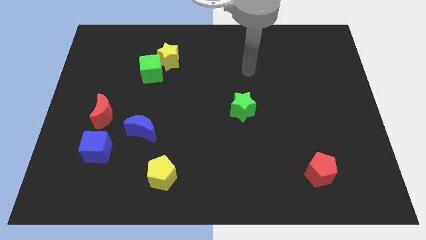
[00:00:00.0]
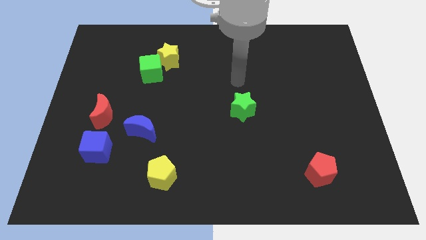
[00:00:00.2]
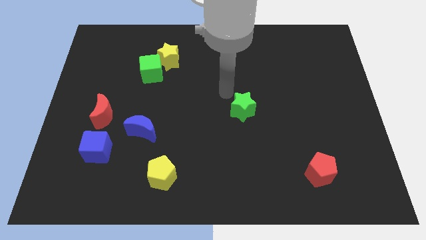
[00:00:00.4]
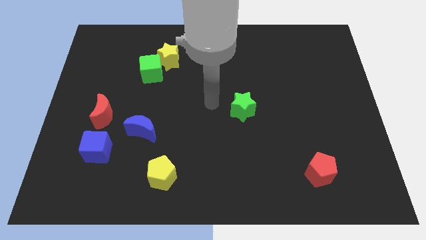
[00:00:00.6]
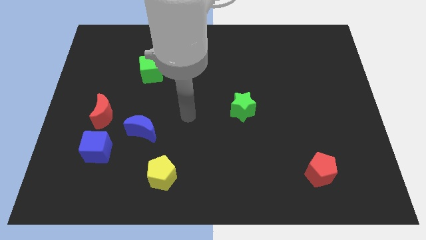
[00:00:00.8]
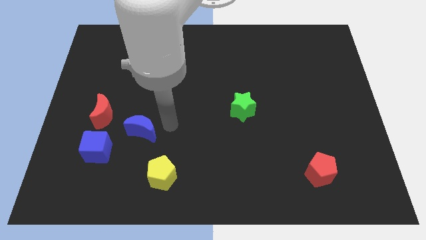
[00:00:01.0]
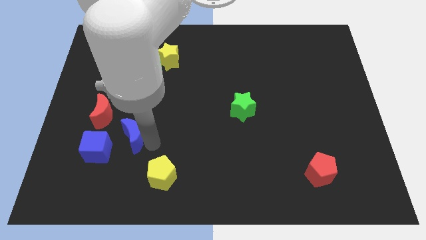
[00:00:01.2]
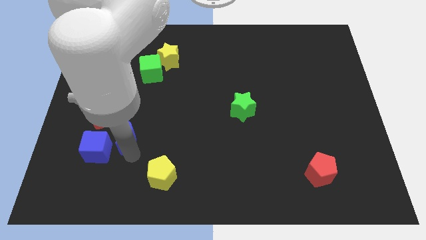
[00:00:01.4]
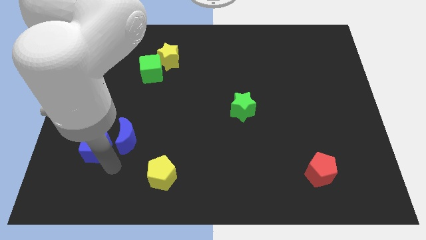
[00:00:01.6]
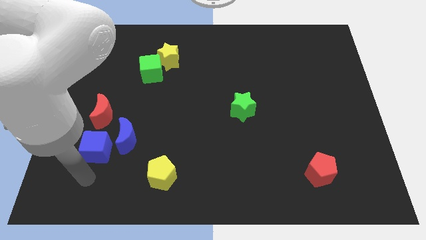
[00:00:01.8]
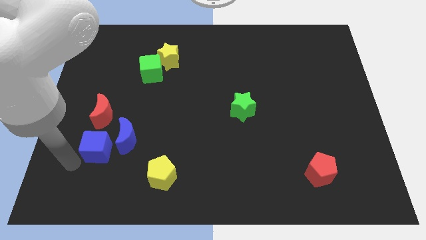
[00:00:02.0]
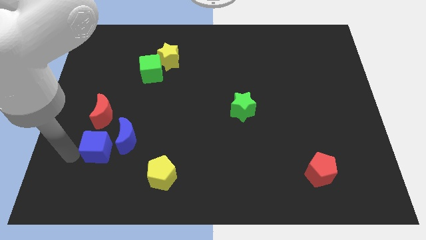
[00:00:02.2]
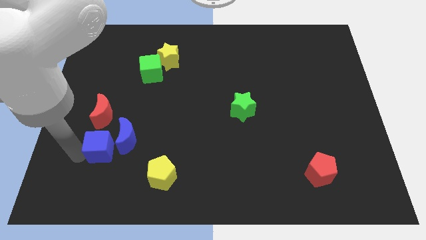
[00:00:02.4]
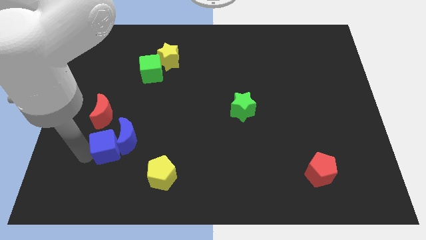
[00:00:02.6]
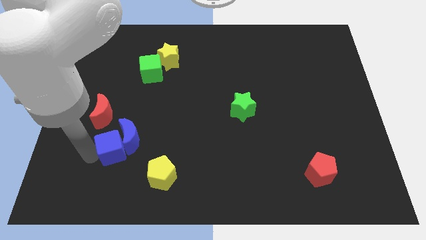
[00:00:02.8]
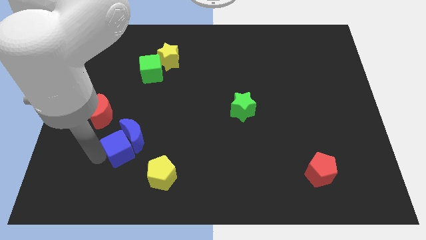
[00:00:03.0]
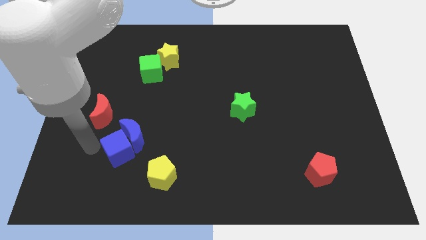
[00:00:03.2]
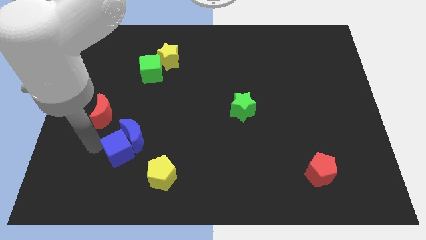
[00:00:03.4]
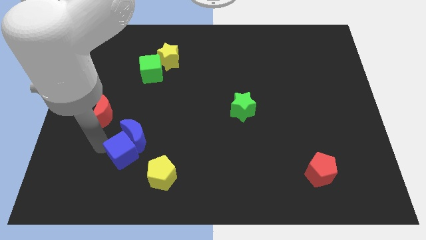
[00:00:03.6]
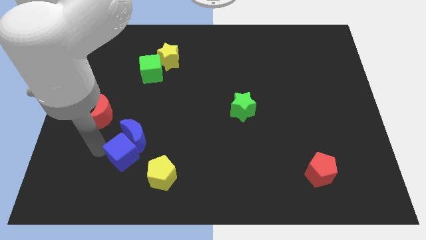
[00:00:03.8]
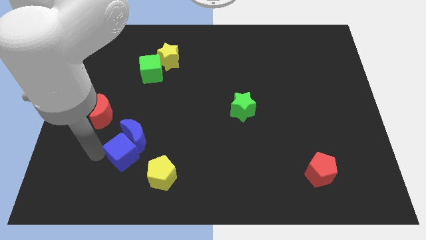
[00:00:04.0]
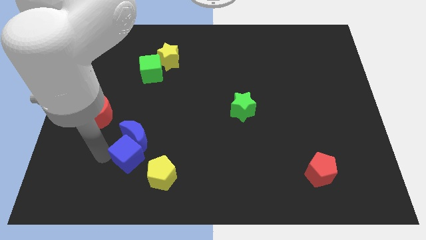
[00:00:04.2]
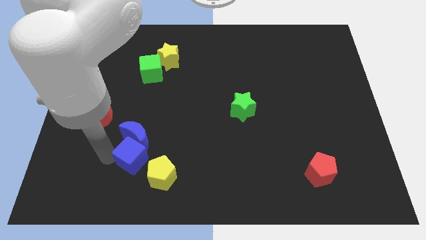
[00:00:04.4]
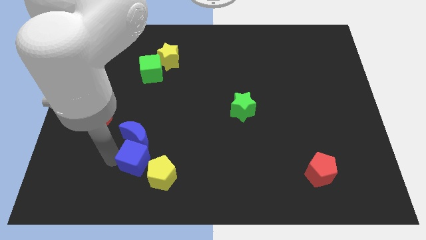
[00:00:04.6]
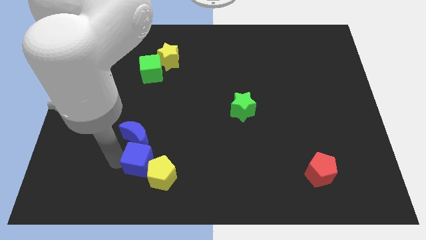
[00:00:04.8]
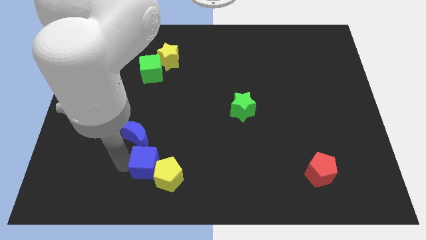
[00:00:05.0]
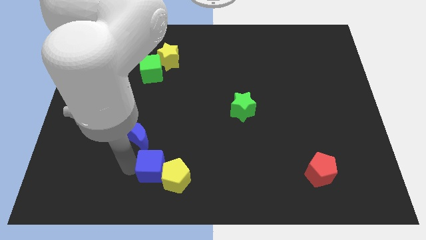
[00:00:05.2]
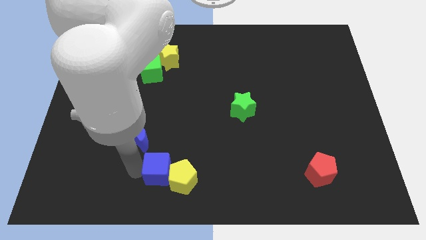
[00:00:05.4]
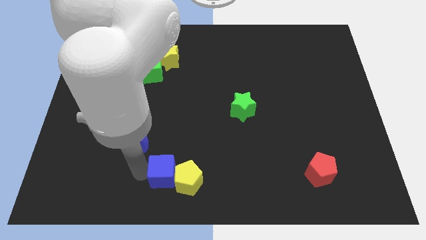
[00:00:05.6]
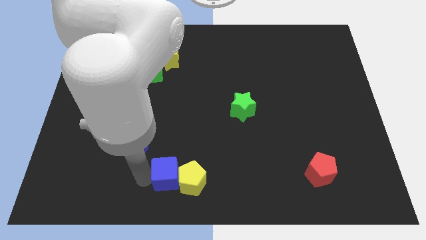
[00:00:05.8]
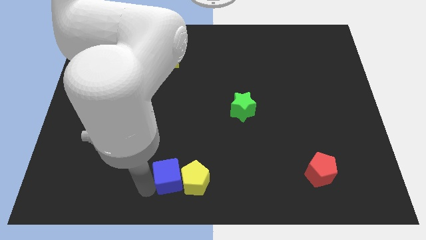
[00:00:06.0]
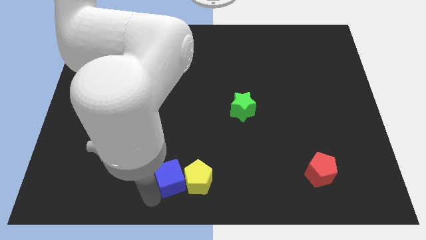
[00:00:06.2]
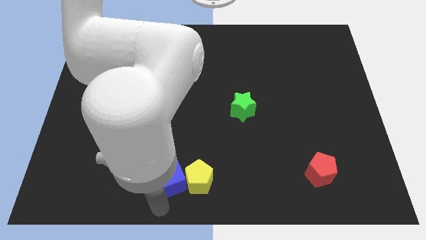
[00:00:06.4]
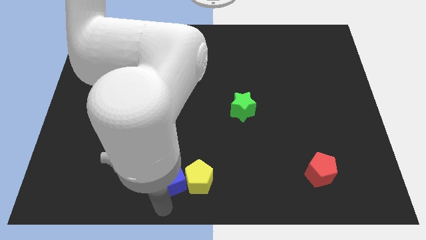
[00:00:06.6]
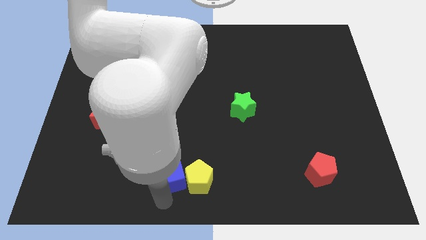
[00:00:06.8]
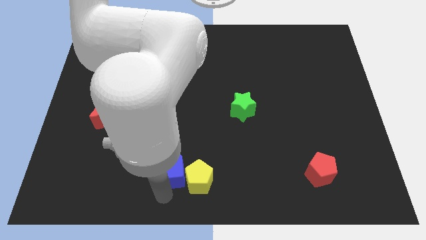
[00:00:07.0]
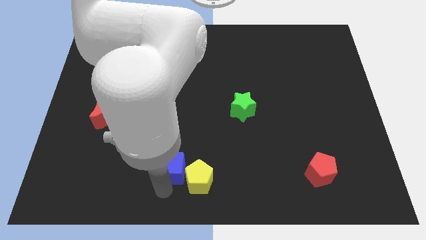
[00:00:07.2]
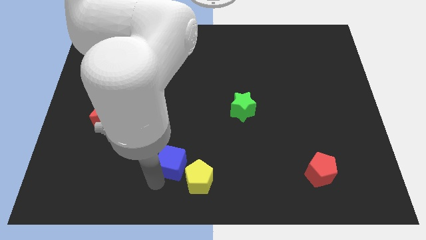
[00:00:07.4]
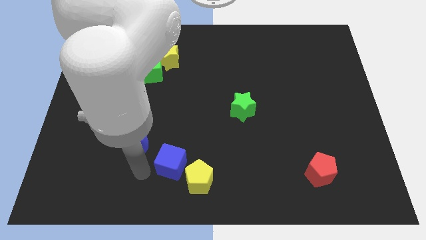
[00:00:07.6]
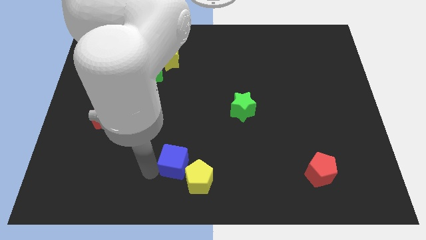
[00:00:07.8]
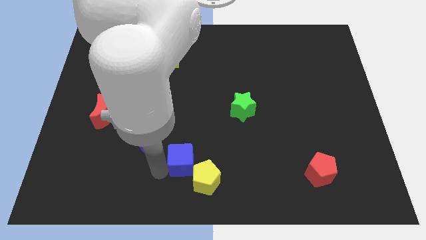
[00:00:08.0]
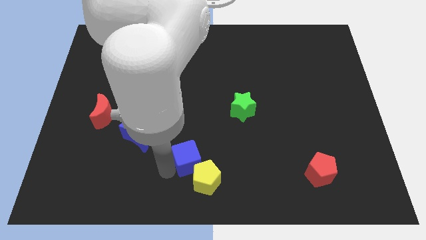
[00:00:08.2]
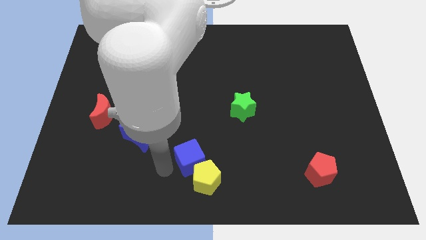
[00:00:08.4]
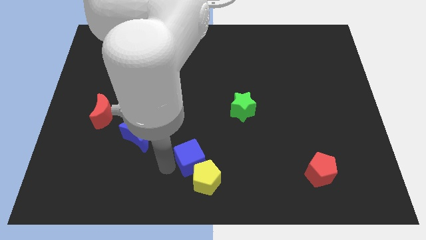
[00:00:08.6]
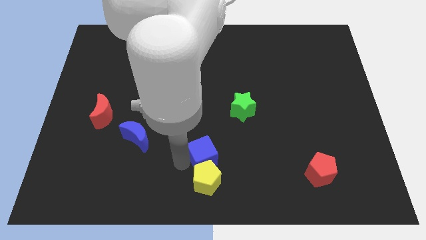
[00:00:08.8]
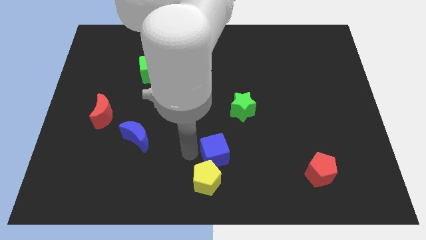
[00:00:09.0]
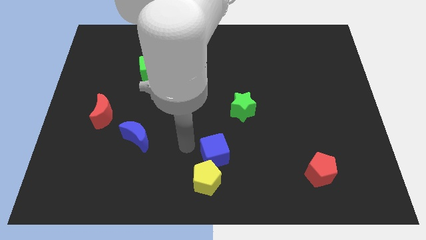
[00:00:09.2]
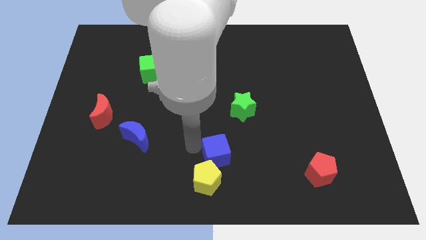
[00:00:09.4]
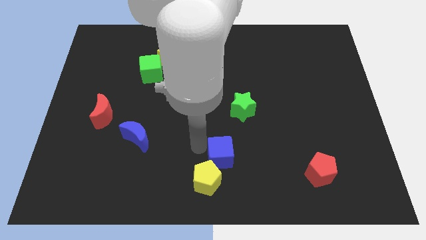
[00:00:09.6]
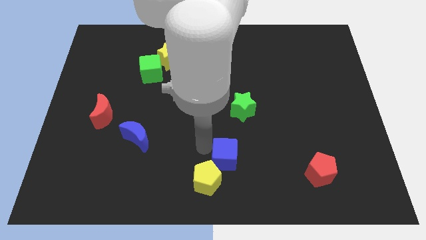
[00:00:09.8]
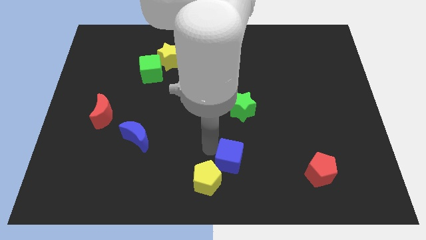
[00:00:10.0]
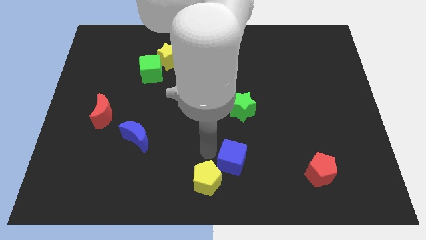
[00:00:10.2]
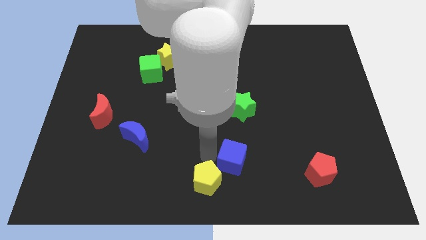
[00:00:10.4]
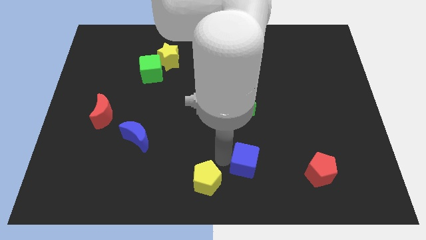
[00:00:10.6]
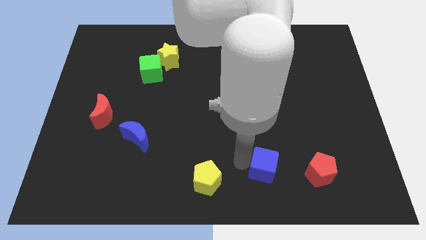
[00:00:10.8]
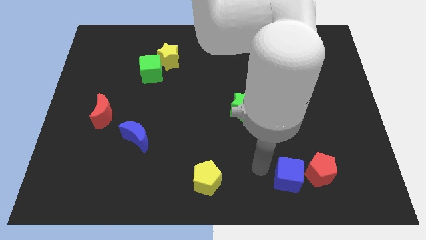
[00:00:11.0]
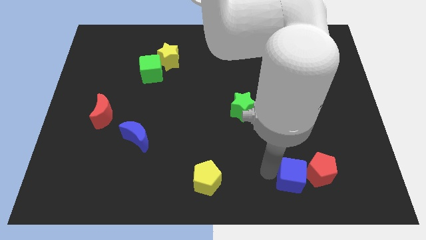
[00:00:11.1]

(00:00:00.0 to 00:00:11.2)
move the blue cube next to the red pentagon

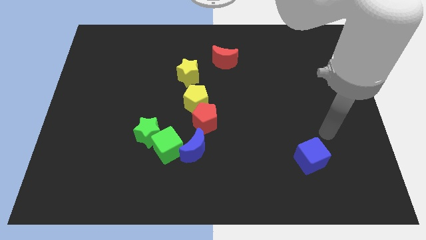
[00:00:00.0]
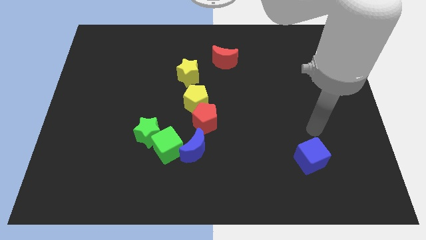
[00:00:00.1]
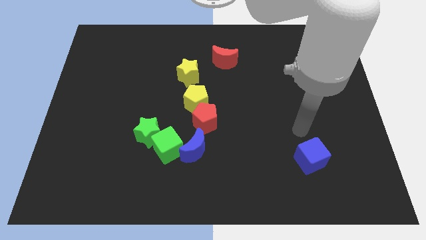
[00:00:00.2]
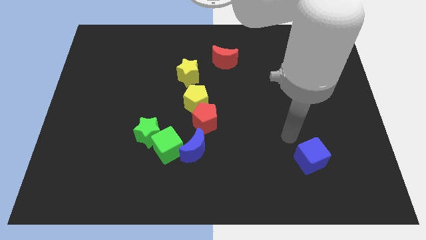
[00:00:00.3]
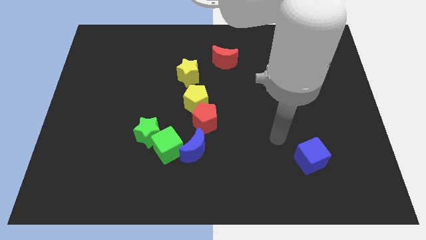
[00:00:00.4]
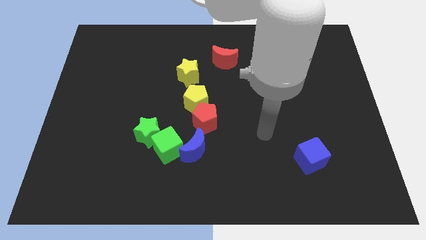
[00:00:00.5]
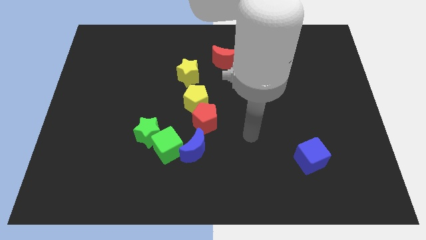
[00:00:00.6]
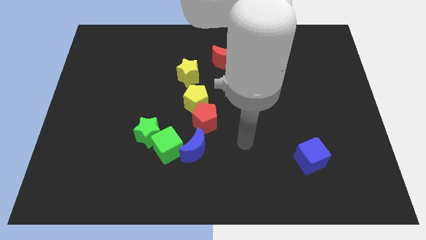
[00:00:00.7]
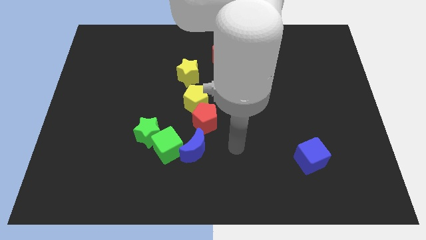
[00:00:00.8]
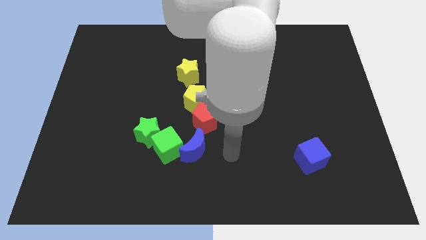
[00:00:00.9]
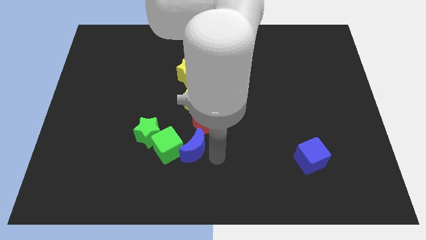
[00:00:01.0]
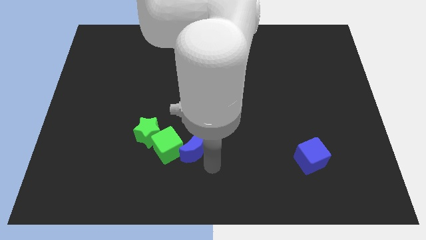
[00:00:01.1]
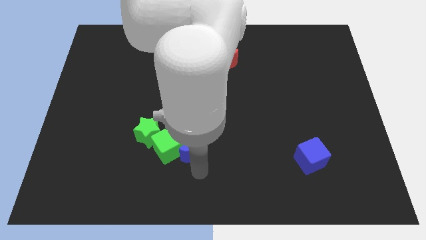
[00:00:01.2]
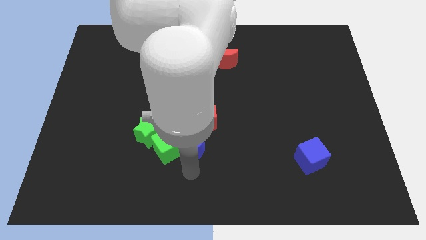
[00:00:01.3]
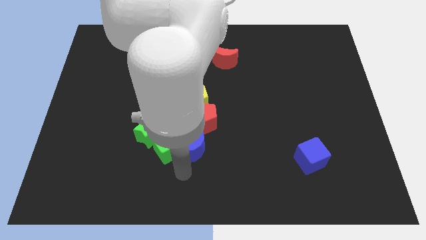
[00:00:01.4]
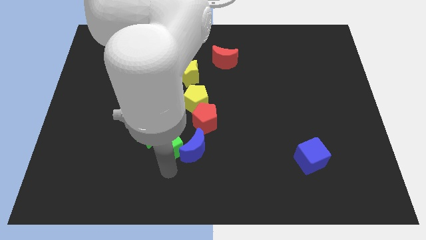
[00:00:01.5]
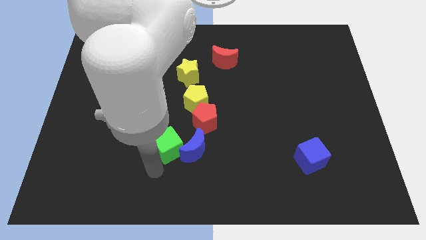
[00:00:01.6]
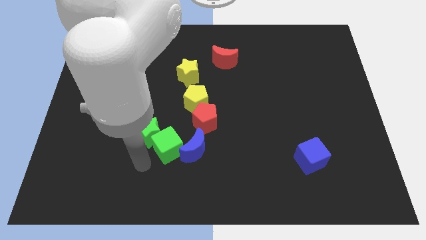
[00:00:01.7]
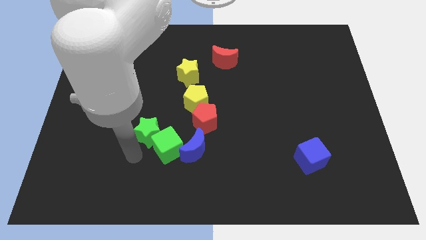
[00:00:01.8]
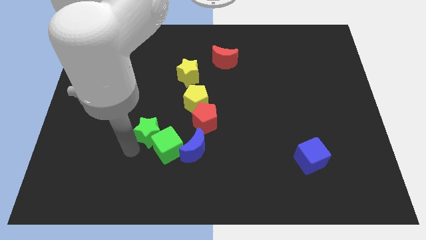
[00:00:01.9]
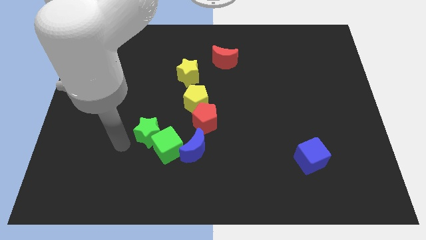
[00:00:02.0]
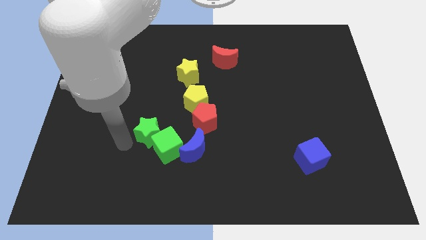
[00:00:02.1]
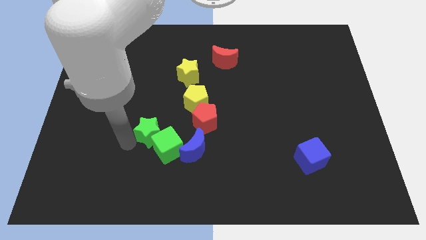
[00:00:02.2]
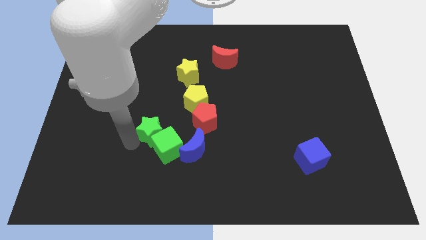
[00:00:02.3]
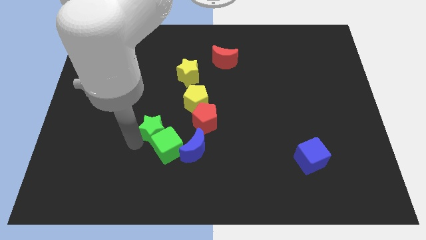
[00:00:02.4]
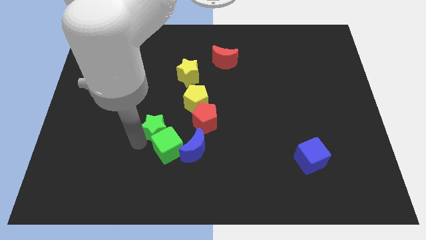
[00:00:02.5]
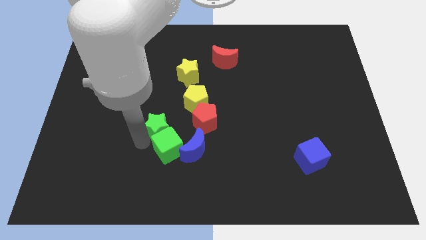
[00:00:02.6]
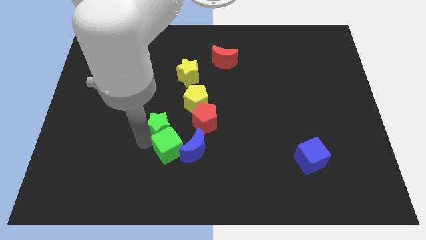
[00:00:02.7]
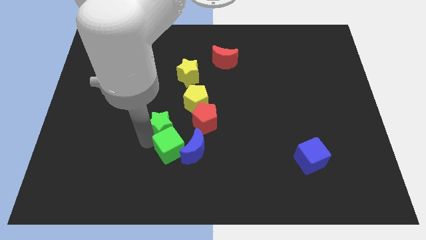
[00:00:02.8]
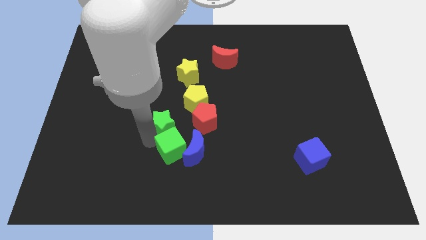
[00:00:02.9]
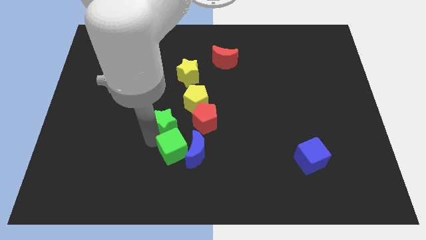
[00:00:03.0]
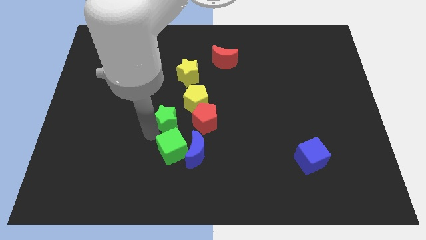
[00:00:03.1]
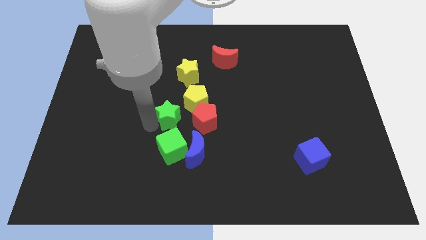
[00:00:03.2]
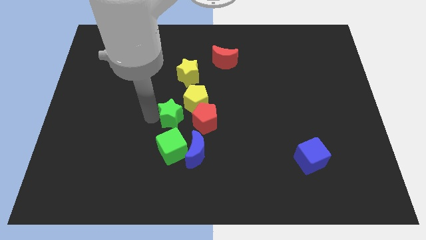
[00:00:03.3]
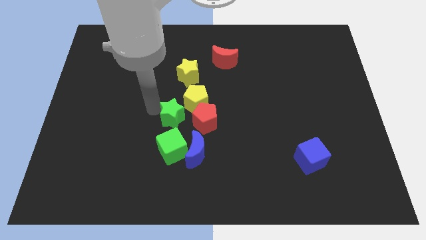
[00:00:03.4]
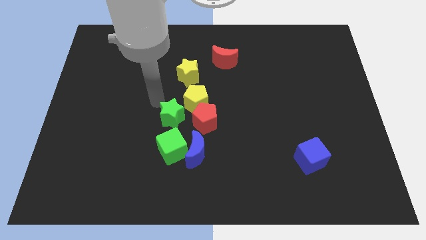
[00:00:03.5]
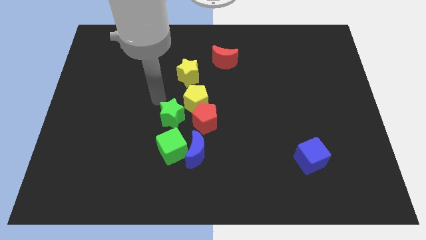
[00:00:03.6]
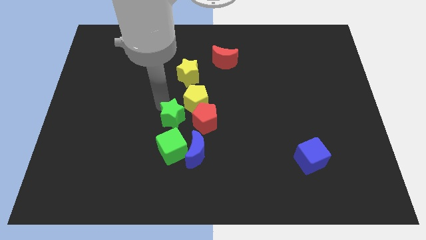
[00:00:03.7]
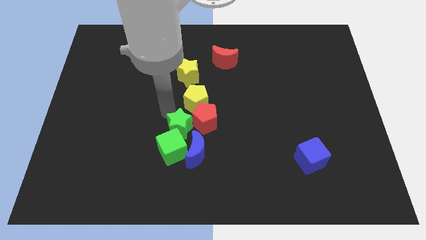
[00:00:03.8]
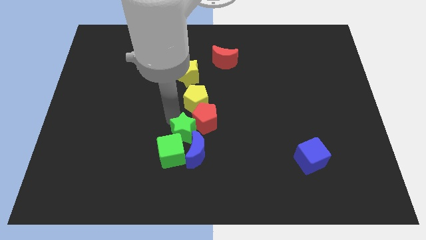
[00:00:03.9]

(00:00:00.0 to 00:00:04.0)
slide the green star to the blue moon
